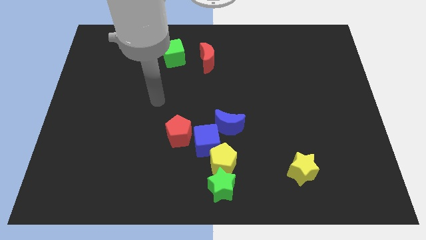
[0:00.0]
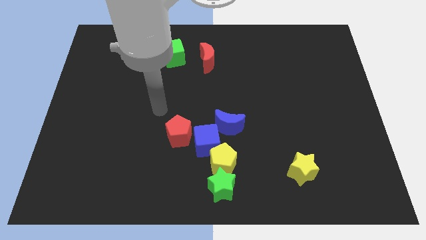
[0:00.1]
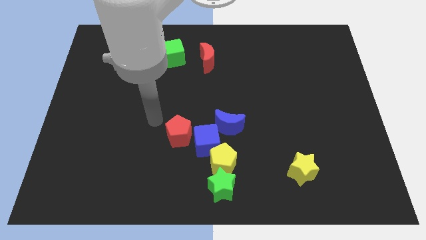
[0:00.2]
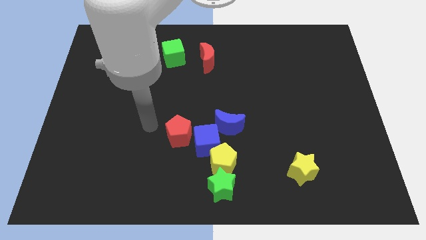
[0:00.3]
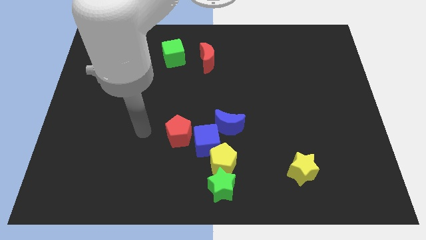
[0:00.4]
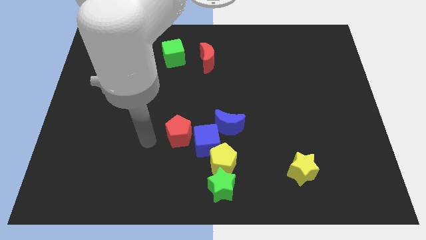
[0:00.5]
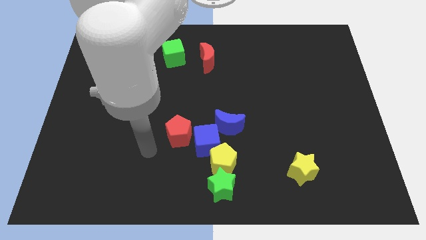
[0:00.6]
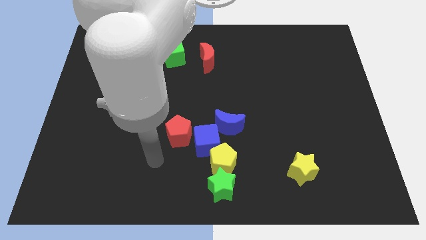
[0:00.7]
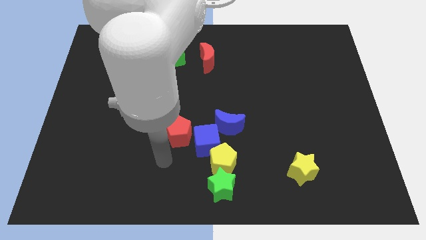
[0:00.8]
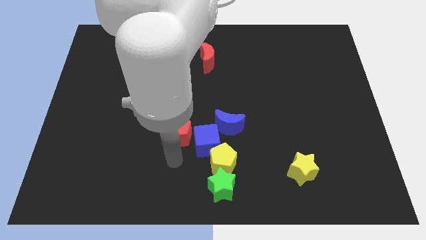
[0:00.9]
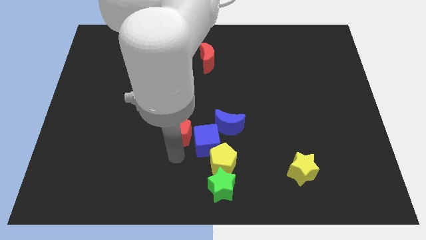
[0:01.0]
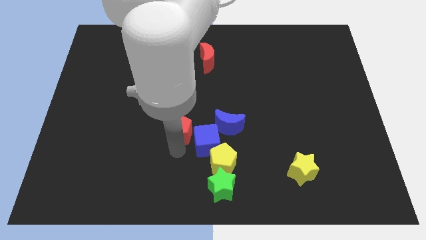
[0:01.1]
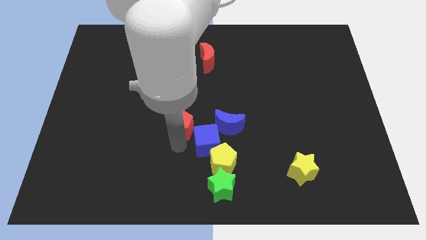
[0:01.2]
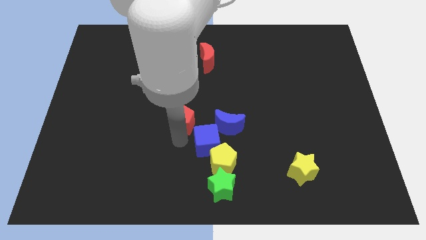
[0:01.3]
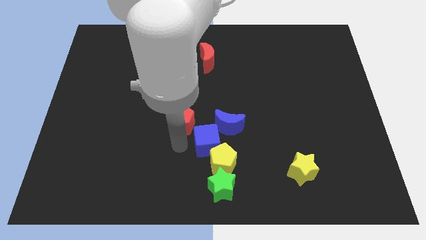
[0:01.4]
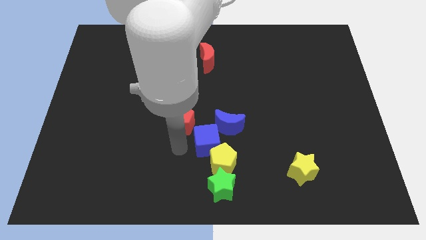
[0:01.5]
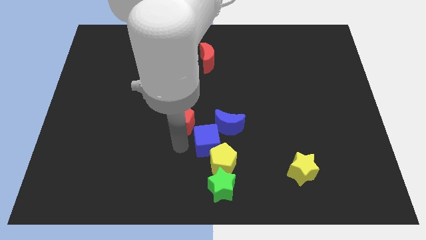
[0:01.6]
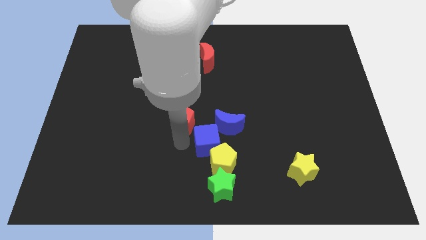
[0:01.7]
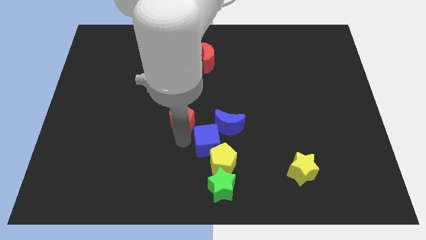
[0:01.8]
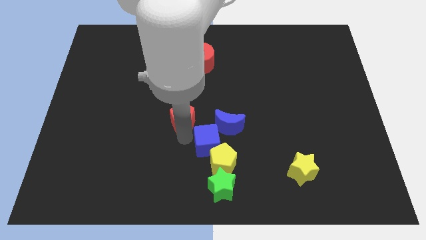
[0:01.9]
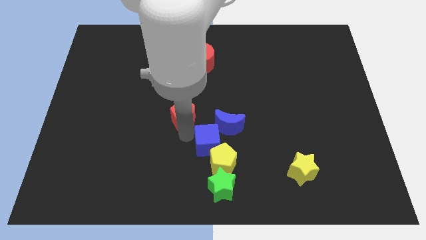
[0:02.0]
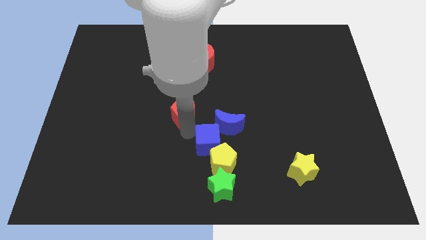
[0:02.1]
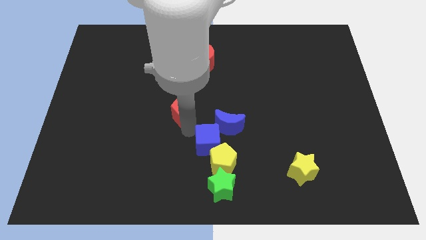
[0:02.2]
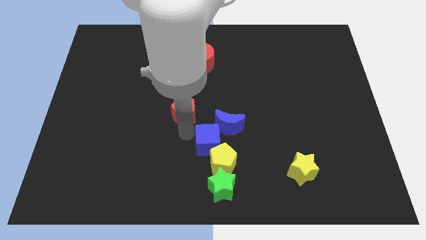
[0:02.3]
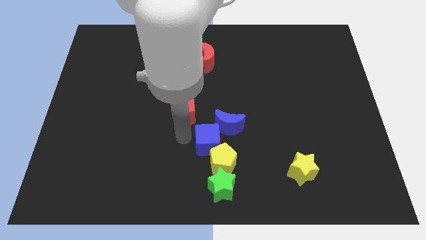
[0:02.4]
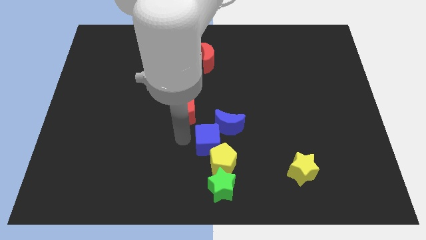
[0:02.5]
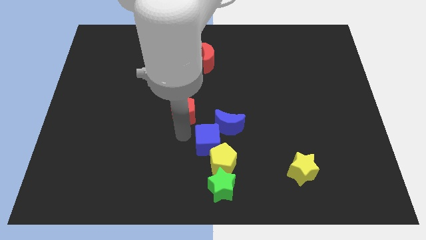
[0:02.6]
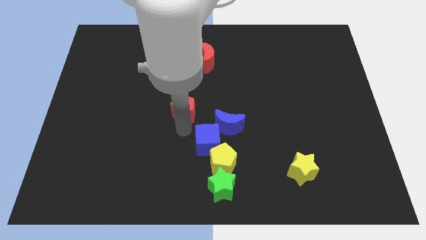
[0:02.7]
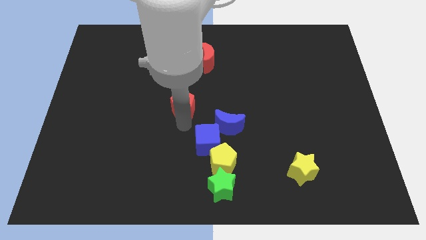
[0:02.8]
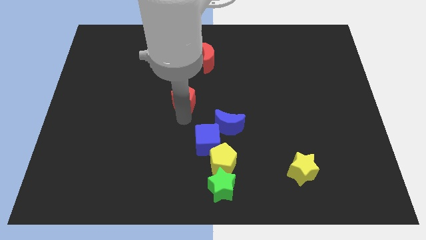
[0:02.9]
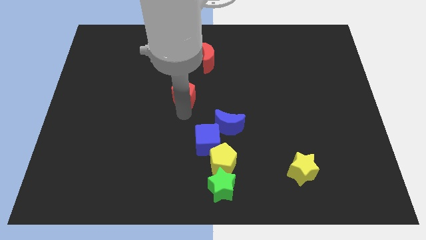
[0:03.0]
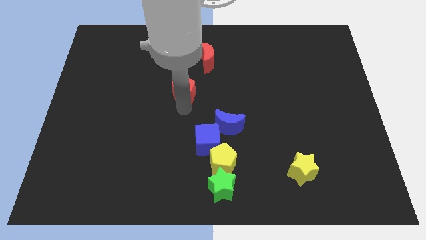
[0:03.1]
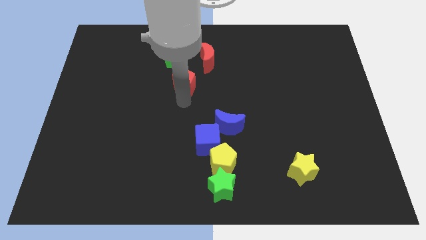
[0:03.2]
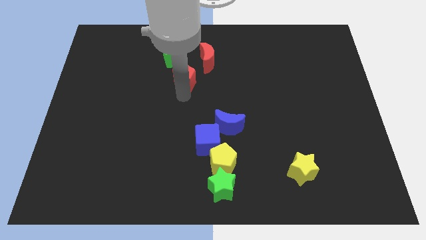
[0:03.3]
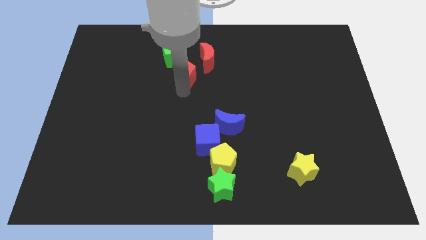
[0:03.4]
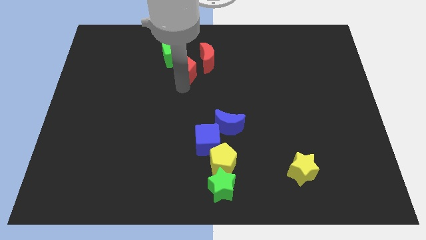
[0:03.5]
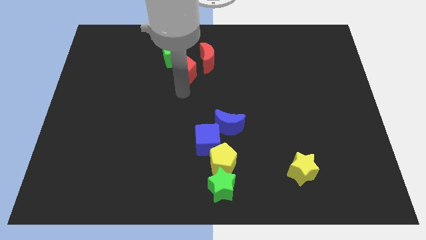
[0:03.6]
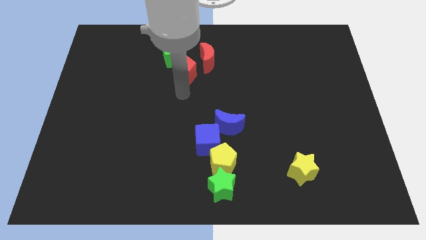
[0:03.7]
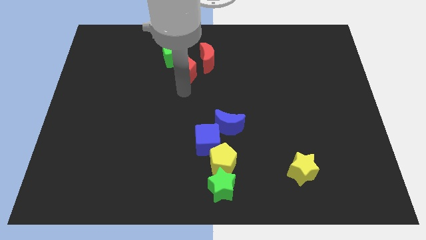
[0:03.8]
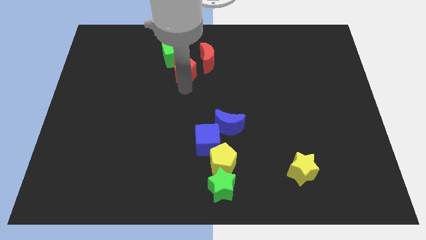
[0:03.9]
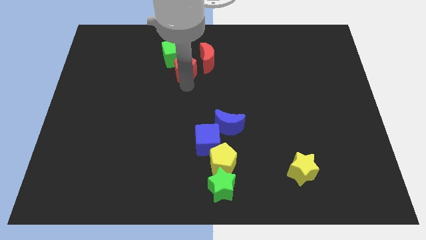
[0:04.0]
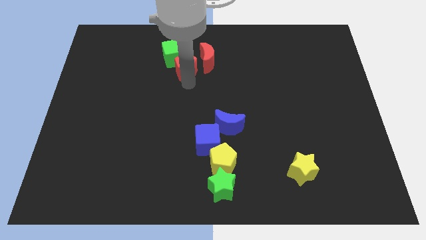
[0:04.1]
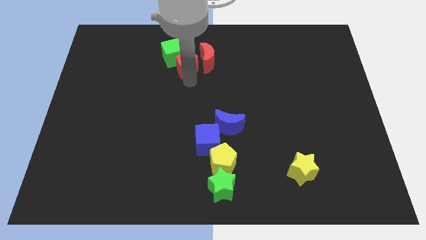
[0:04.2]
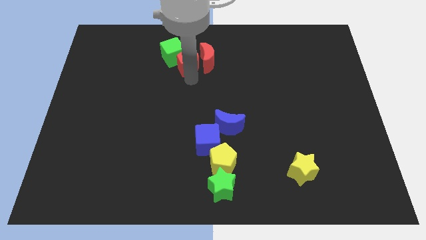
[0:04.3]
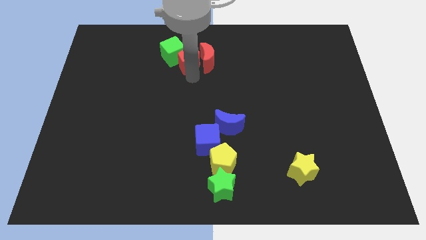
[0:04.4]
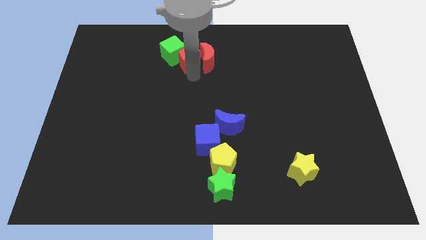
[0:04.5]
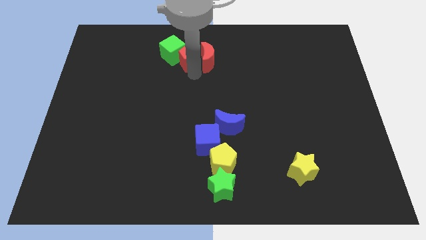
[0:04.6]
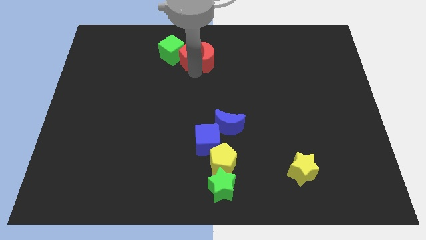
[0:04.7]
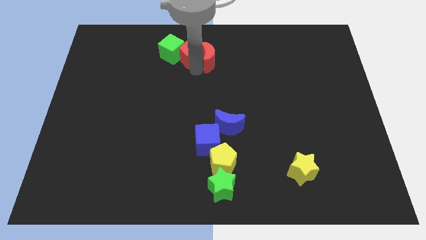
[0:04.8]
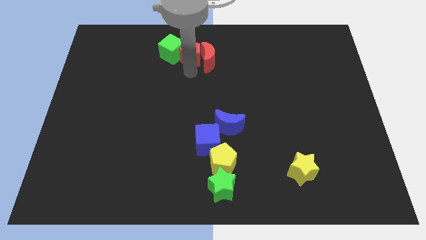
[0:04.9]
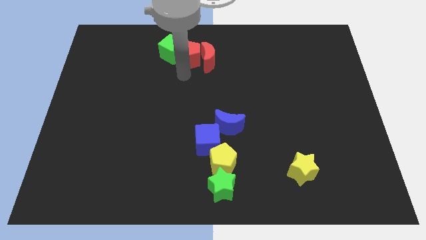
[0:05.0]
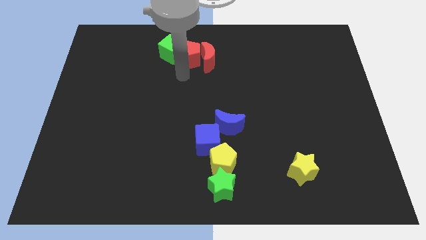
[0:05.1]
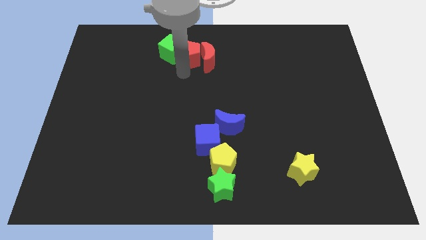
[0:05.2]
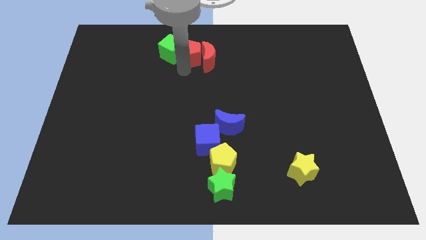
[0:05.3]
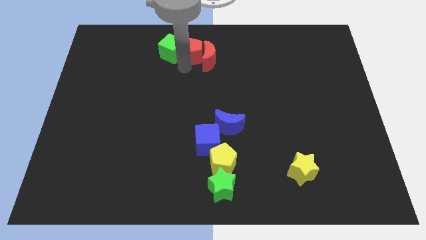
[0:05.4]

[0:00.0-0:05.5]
move the red pentagon to the towards your base
